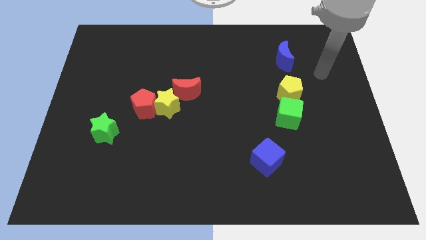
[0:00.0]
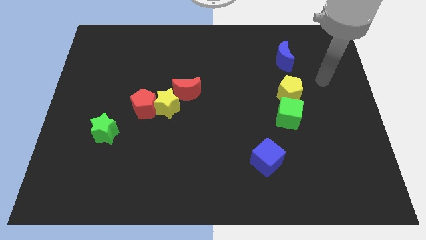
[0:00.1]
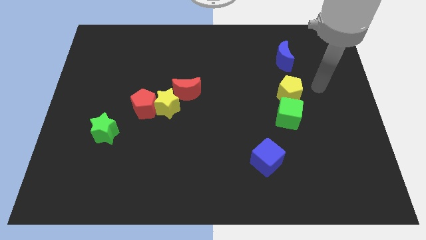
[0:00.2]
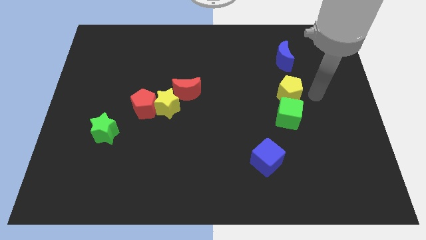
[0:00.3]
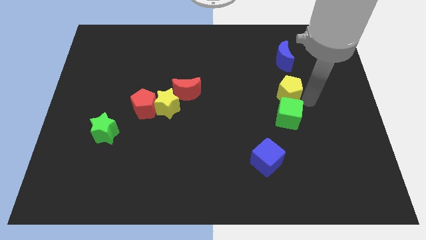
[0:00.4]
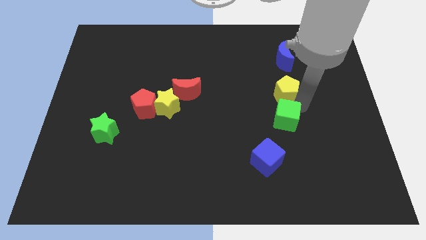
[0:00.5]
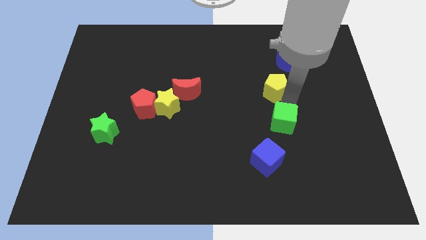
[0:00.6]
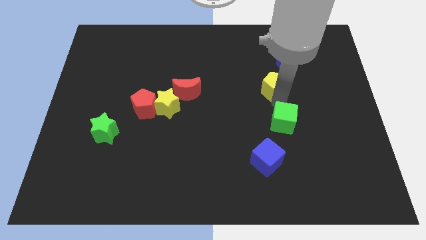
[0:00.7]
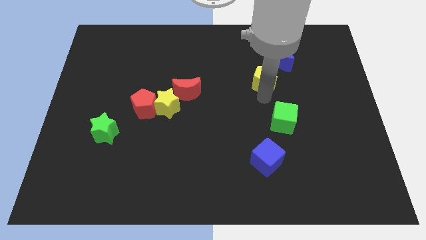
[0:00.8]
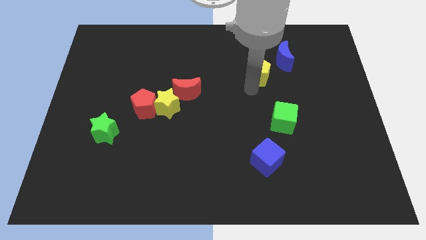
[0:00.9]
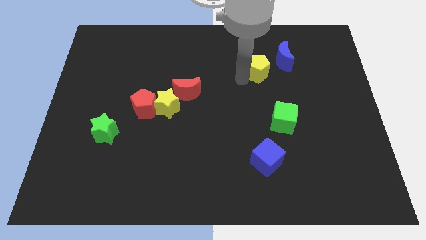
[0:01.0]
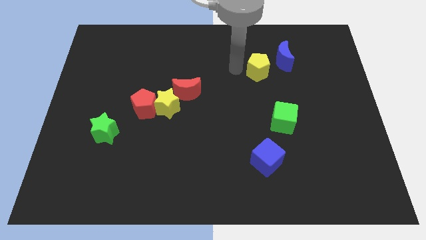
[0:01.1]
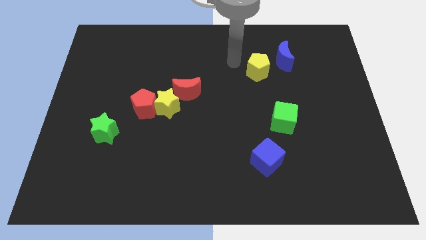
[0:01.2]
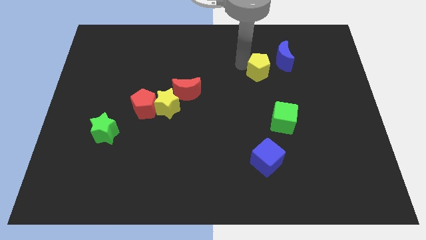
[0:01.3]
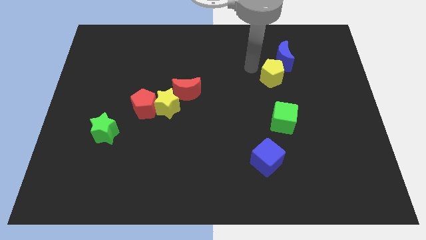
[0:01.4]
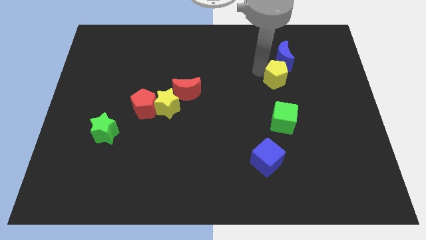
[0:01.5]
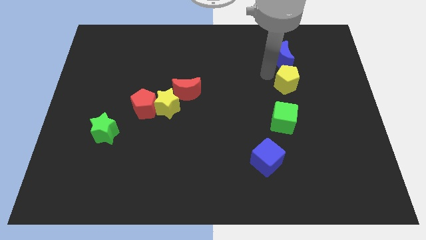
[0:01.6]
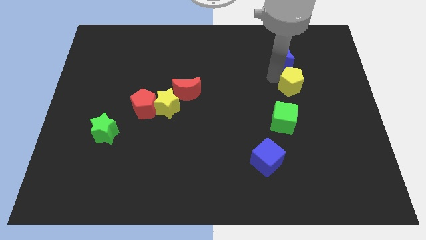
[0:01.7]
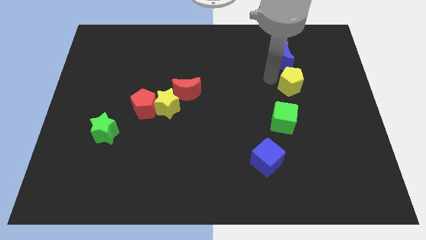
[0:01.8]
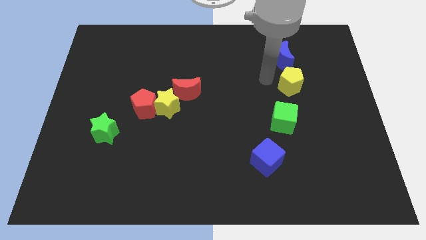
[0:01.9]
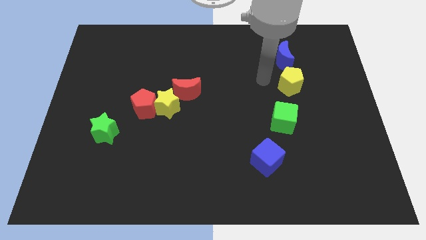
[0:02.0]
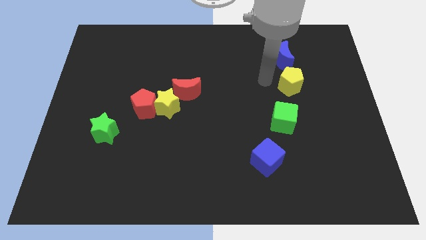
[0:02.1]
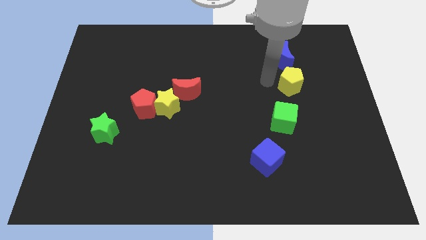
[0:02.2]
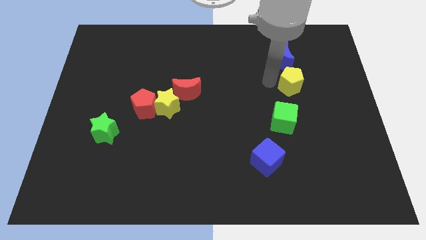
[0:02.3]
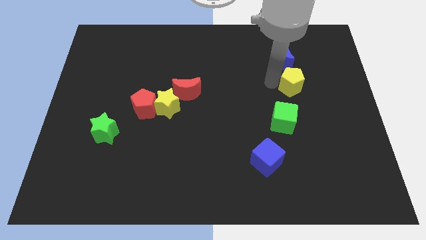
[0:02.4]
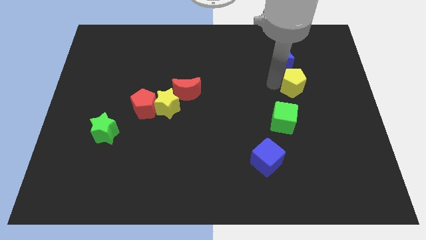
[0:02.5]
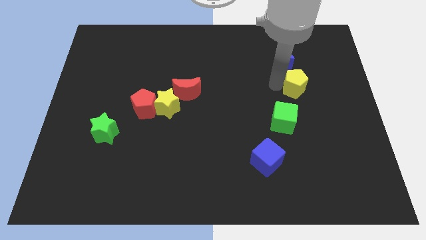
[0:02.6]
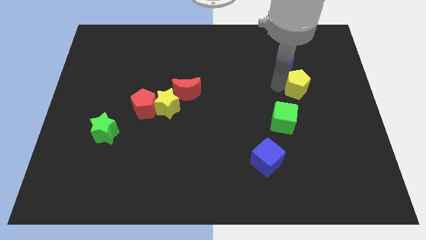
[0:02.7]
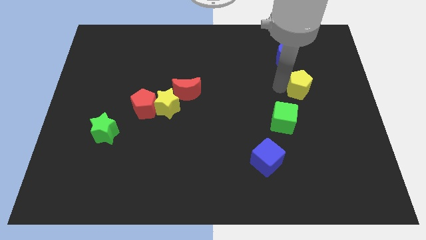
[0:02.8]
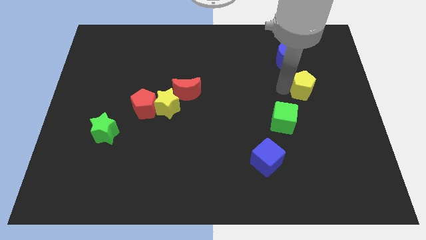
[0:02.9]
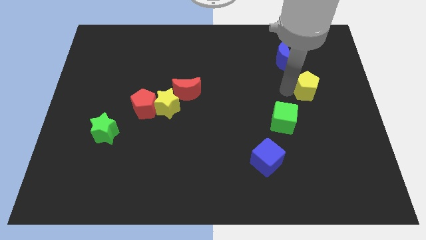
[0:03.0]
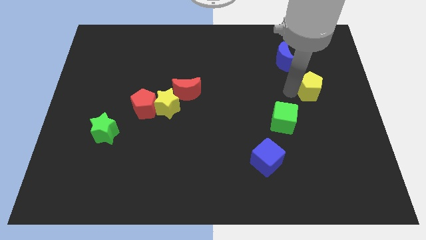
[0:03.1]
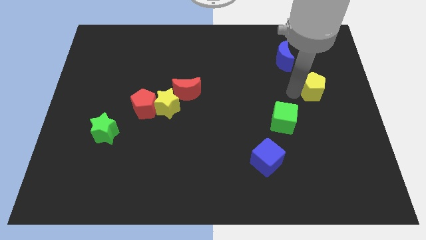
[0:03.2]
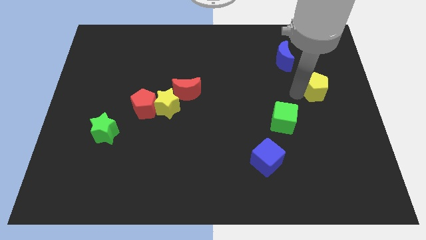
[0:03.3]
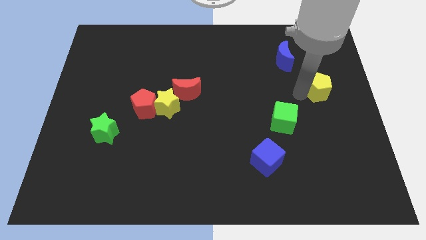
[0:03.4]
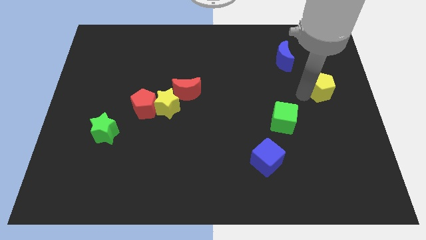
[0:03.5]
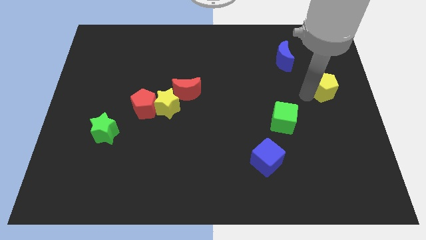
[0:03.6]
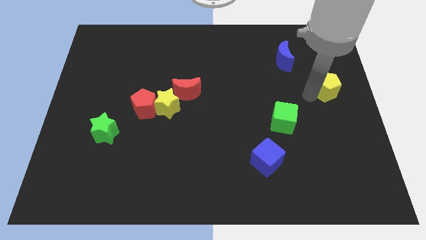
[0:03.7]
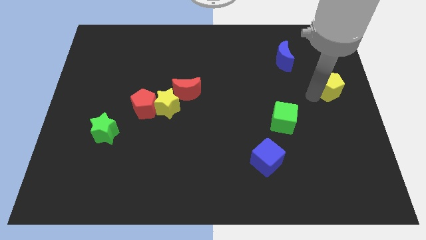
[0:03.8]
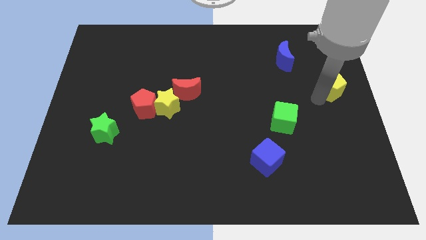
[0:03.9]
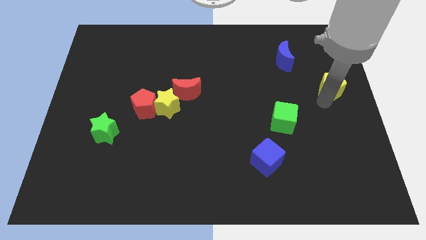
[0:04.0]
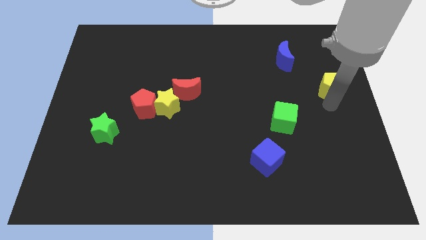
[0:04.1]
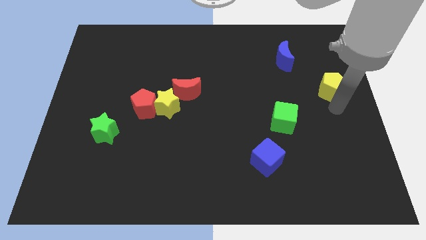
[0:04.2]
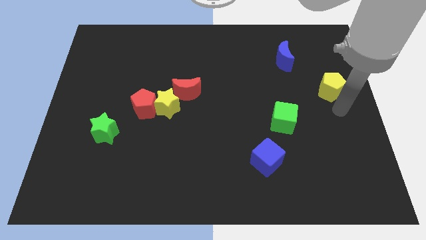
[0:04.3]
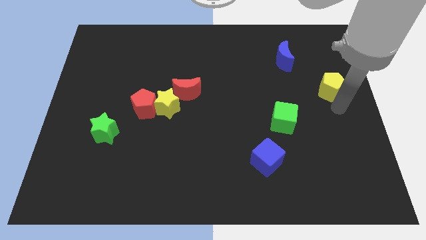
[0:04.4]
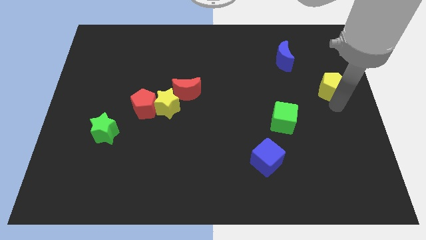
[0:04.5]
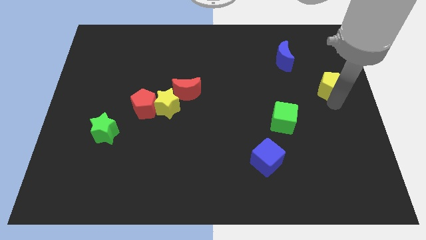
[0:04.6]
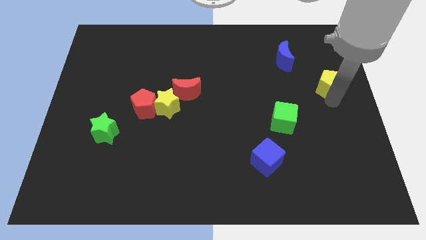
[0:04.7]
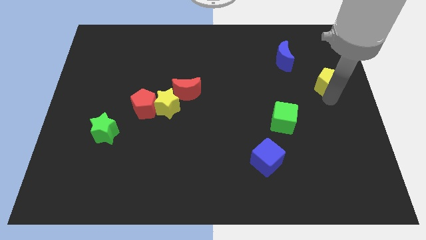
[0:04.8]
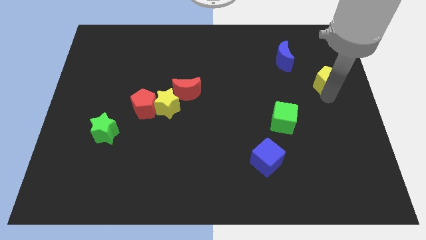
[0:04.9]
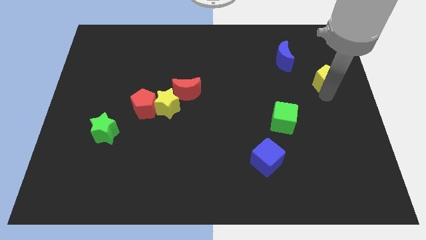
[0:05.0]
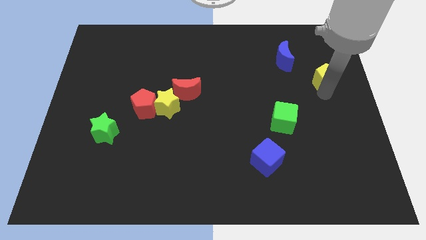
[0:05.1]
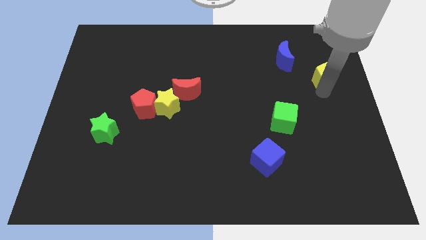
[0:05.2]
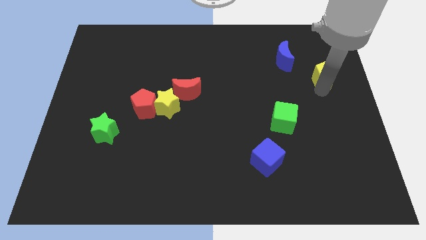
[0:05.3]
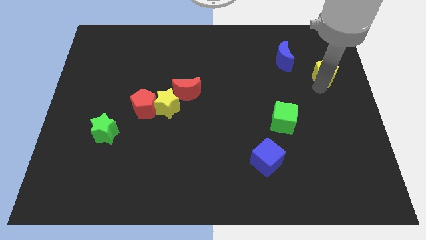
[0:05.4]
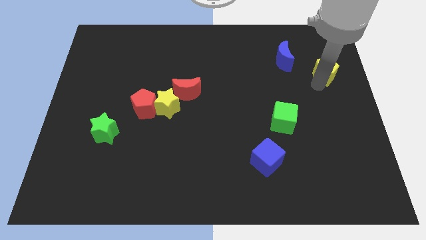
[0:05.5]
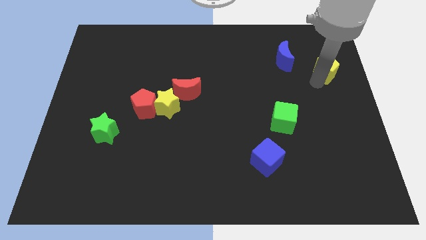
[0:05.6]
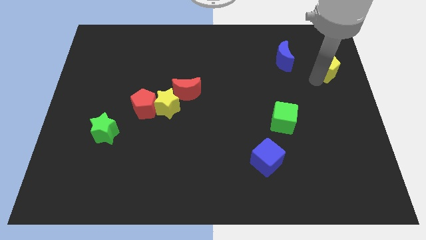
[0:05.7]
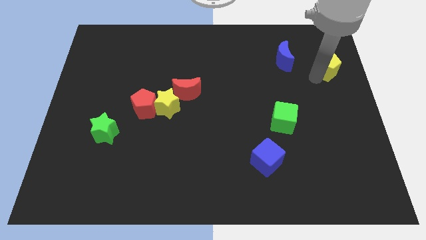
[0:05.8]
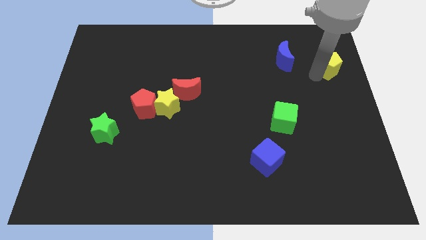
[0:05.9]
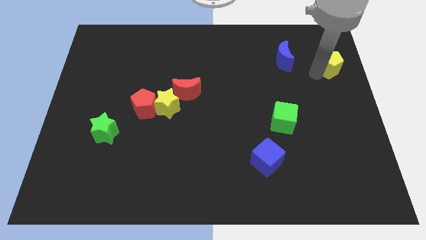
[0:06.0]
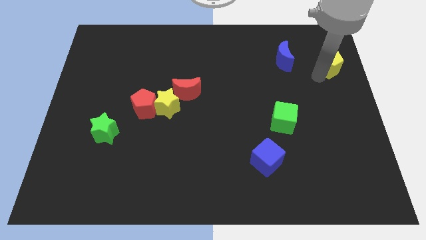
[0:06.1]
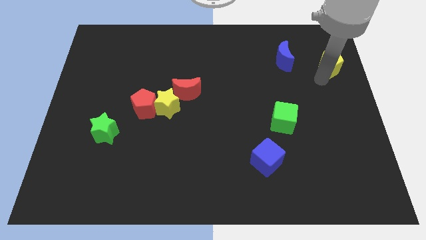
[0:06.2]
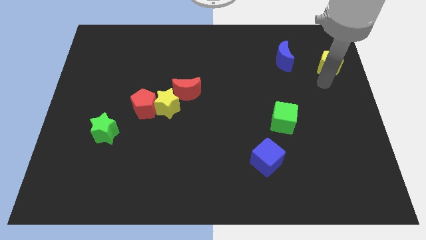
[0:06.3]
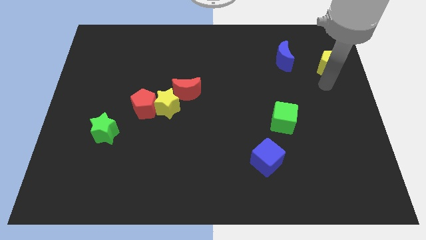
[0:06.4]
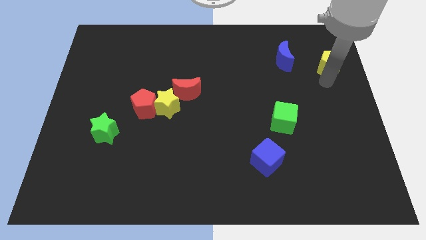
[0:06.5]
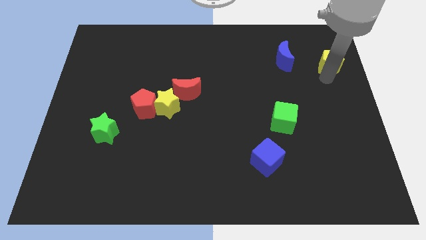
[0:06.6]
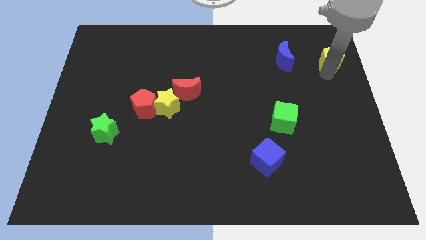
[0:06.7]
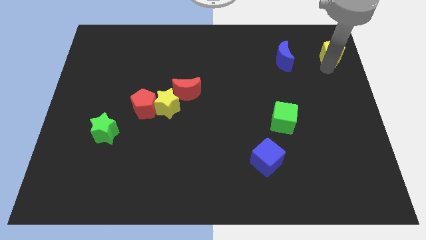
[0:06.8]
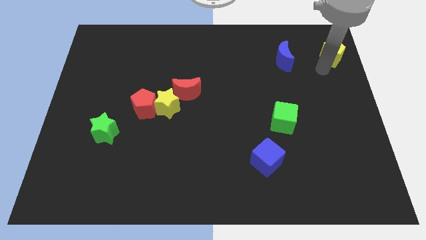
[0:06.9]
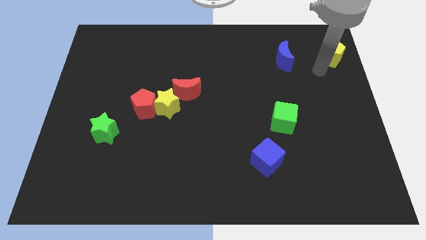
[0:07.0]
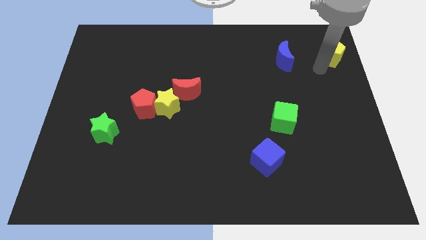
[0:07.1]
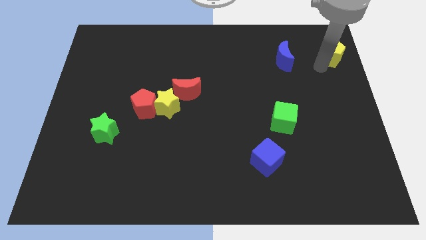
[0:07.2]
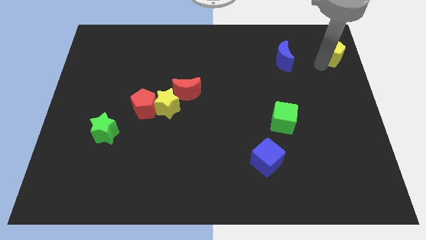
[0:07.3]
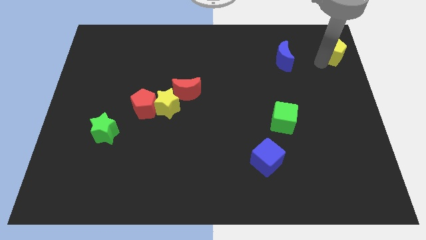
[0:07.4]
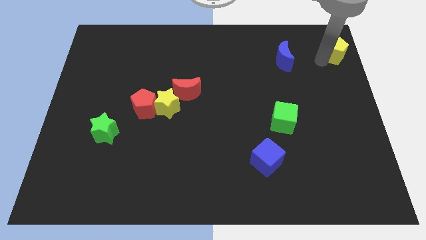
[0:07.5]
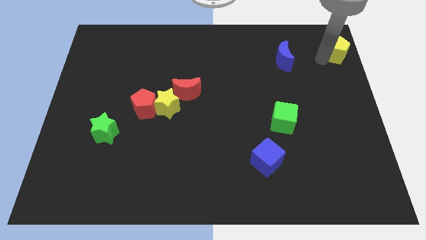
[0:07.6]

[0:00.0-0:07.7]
move the yellow pentagon to the top right corner
